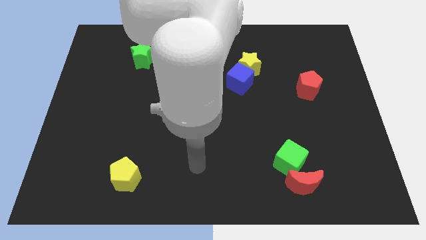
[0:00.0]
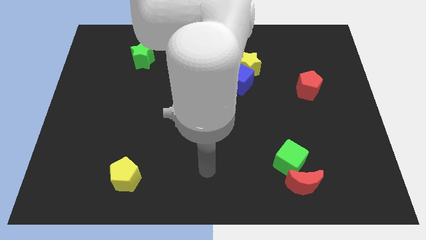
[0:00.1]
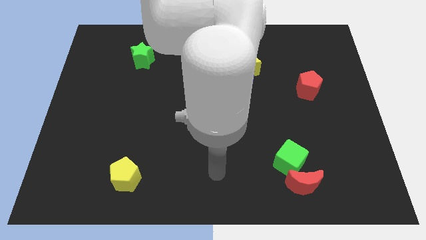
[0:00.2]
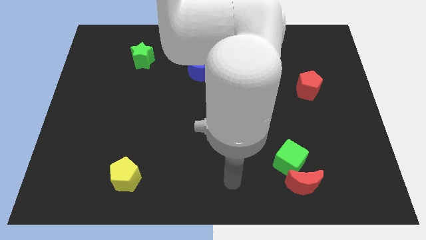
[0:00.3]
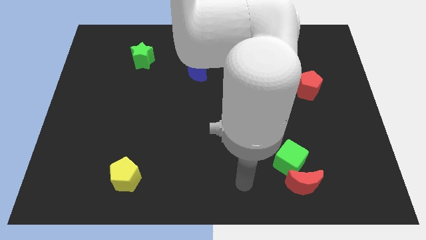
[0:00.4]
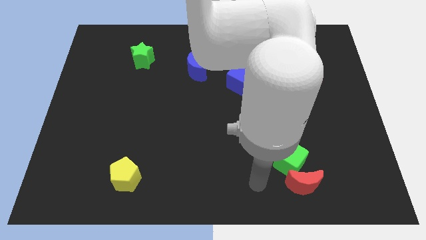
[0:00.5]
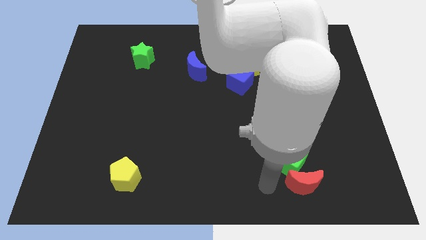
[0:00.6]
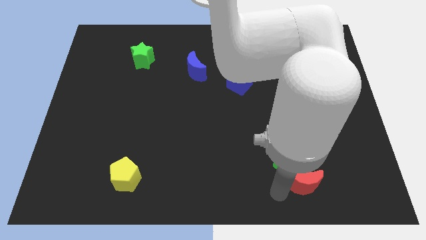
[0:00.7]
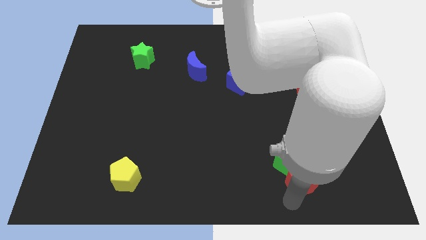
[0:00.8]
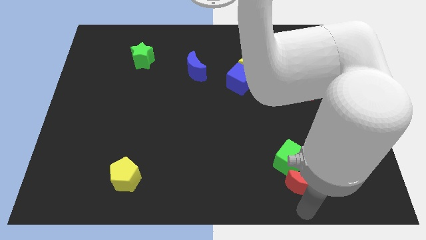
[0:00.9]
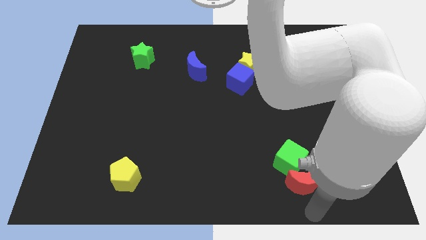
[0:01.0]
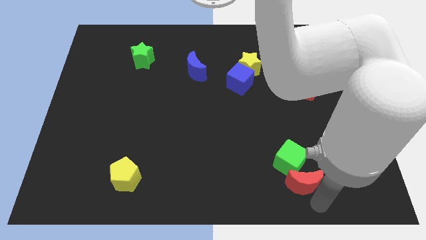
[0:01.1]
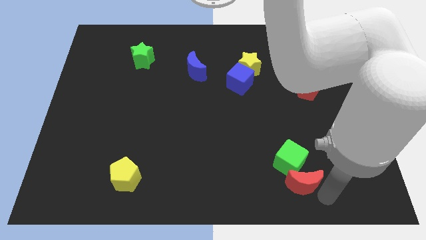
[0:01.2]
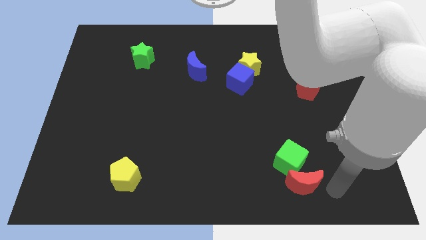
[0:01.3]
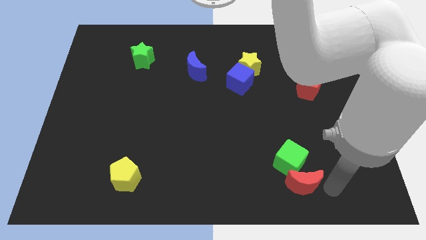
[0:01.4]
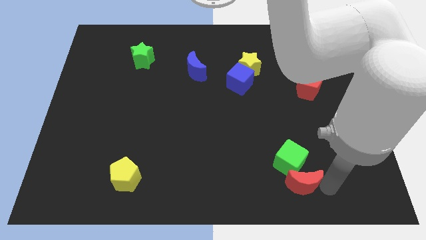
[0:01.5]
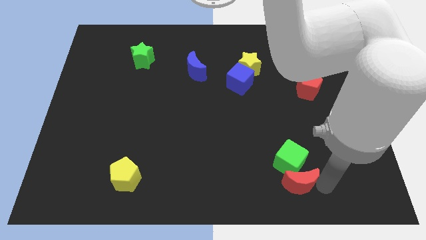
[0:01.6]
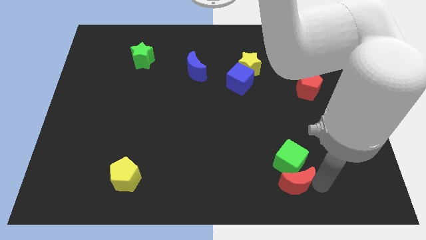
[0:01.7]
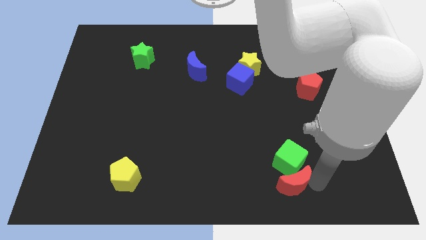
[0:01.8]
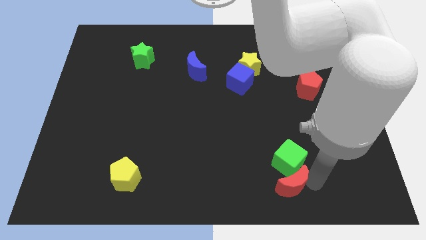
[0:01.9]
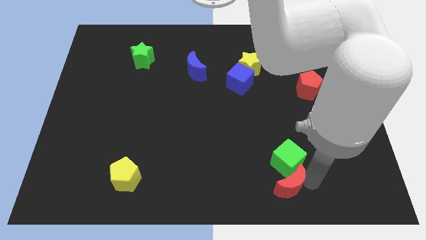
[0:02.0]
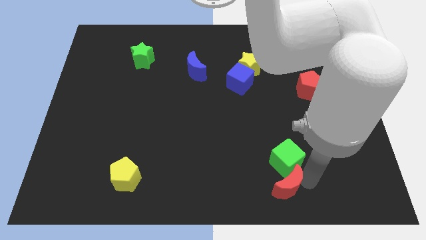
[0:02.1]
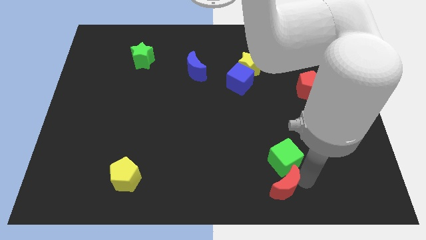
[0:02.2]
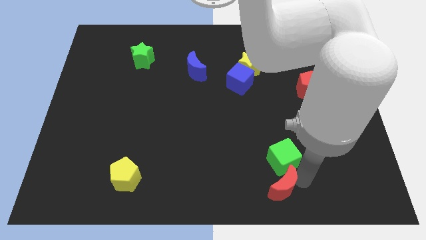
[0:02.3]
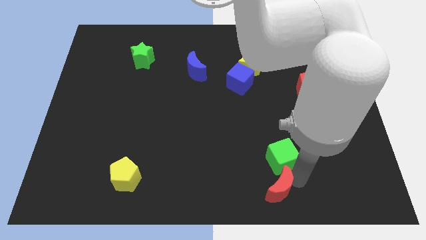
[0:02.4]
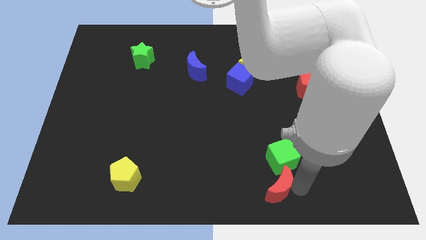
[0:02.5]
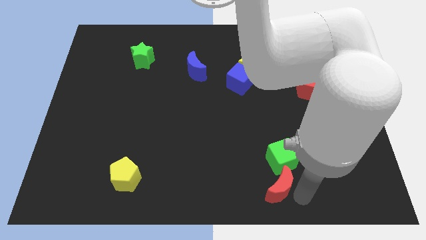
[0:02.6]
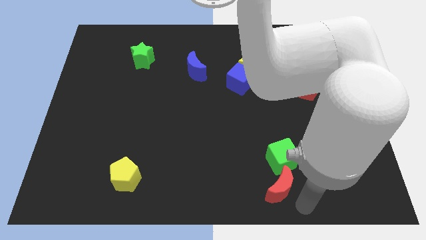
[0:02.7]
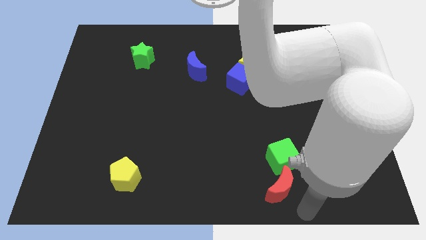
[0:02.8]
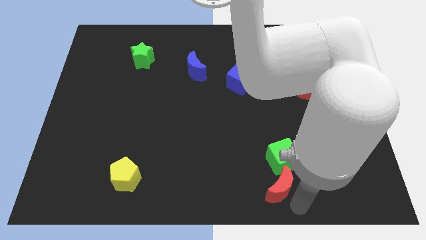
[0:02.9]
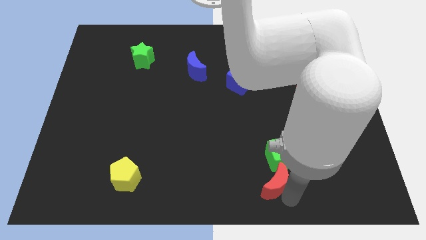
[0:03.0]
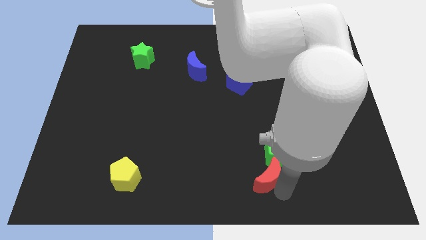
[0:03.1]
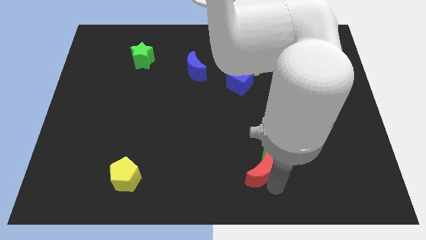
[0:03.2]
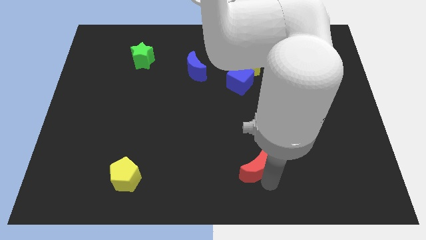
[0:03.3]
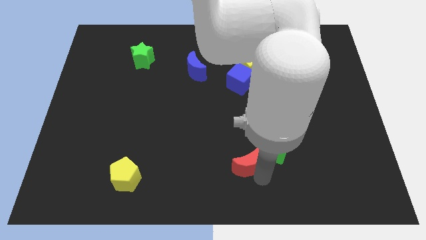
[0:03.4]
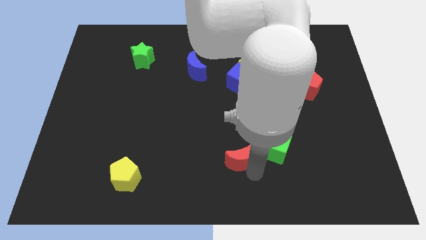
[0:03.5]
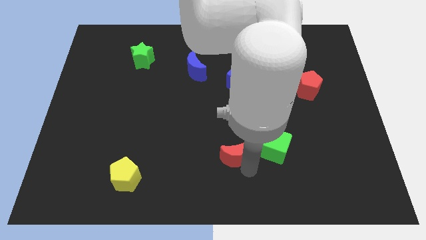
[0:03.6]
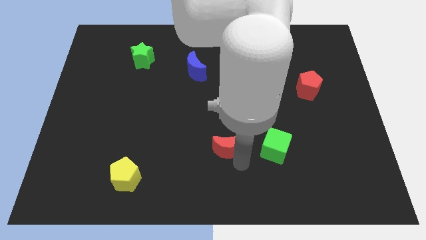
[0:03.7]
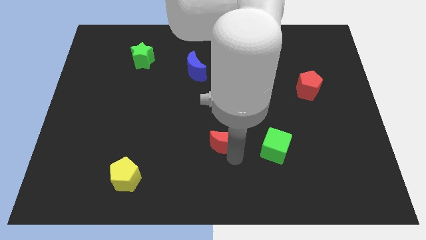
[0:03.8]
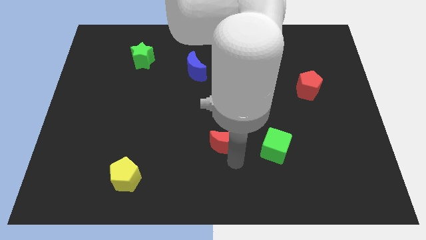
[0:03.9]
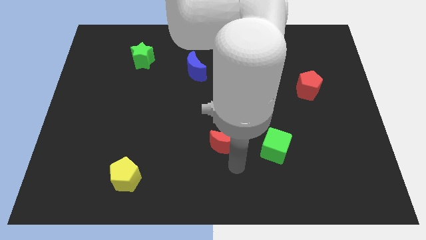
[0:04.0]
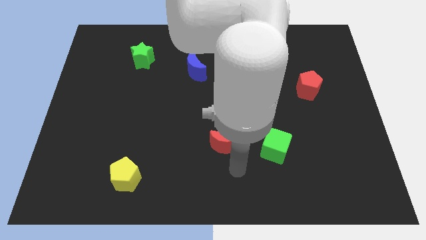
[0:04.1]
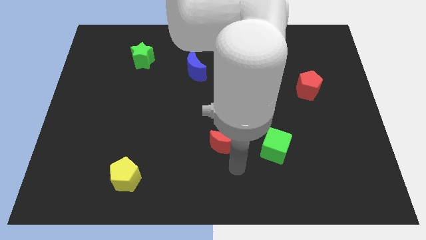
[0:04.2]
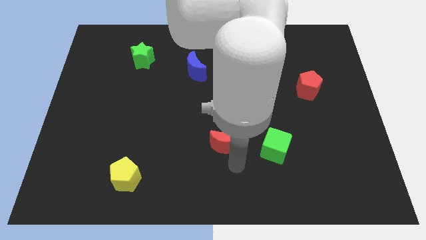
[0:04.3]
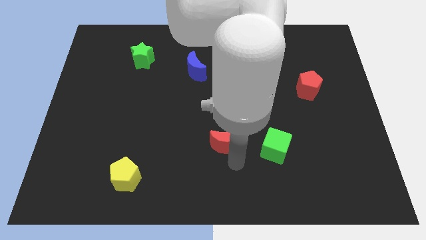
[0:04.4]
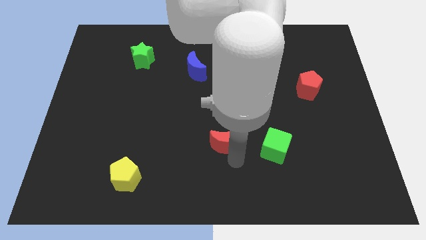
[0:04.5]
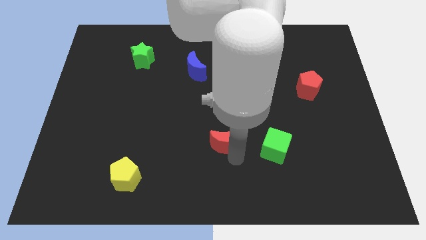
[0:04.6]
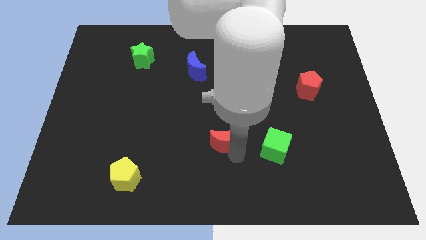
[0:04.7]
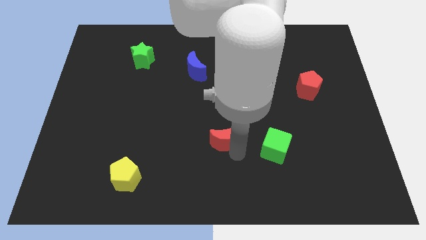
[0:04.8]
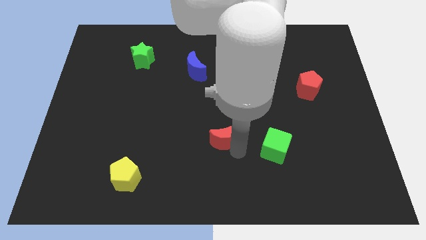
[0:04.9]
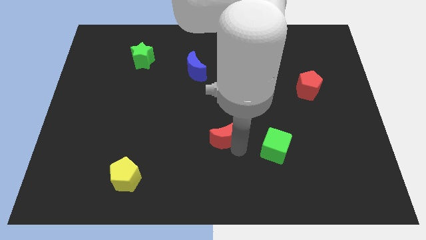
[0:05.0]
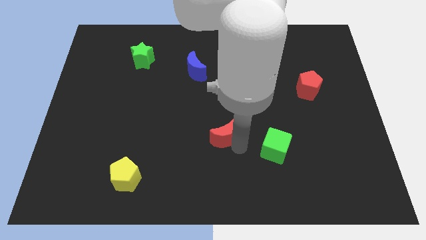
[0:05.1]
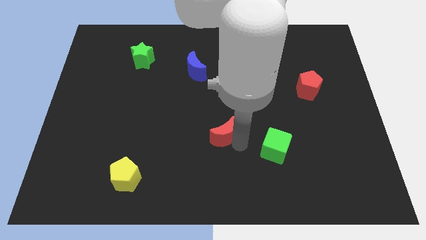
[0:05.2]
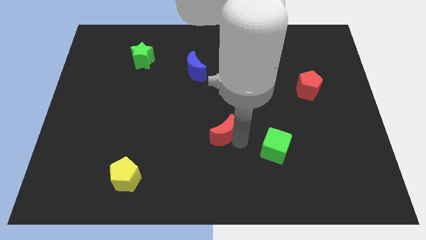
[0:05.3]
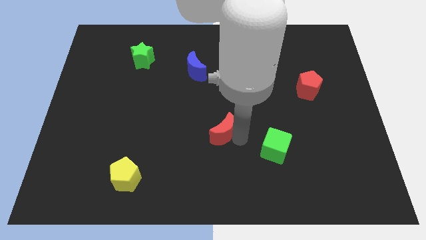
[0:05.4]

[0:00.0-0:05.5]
push the red moon upwards and left

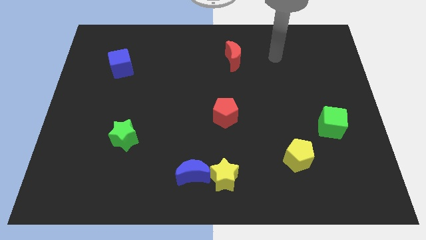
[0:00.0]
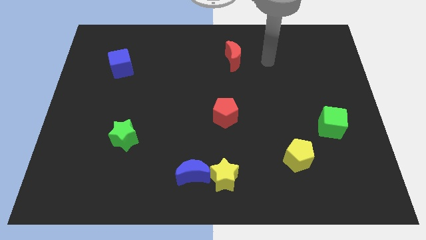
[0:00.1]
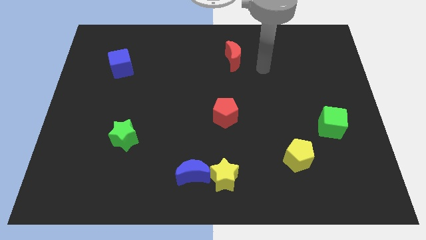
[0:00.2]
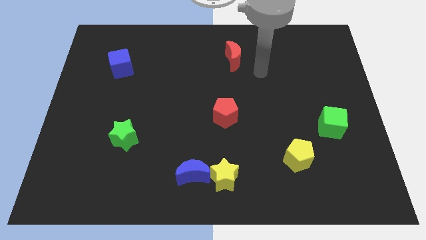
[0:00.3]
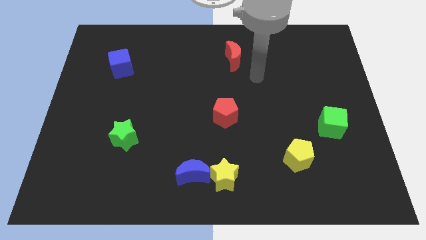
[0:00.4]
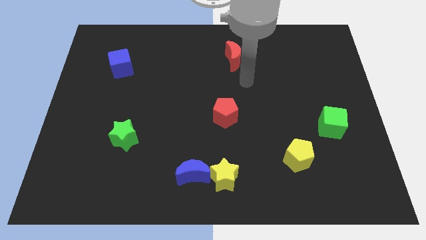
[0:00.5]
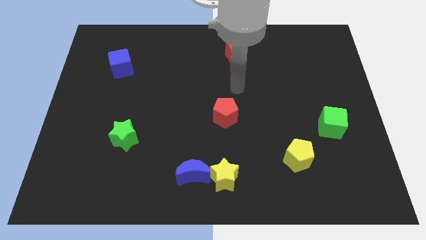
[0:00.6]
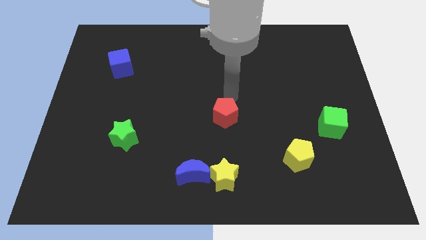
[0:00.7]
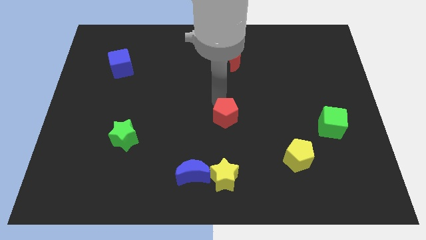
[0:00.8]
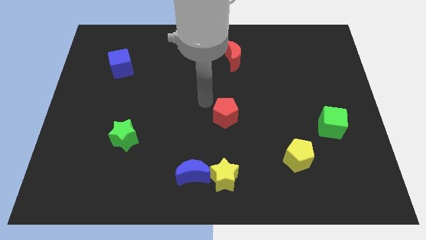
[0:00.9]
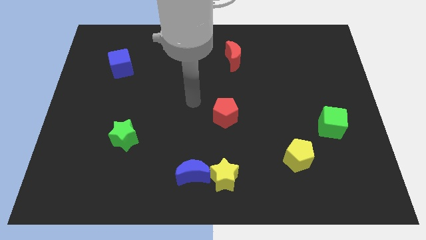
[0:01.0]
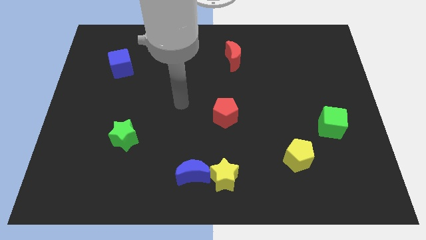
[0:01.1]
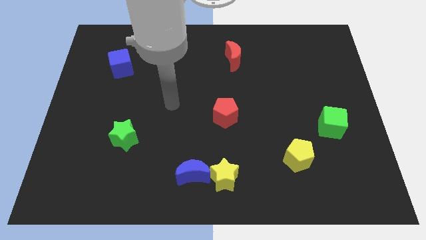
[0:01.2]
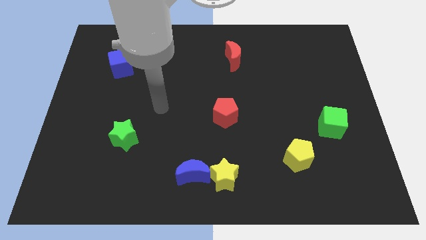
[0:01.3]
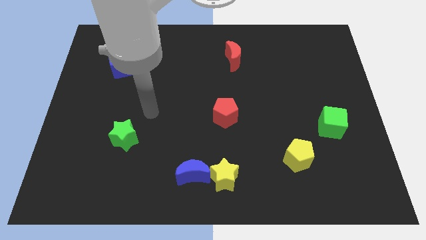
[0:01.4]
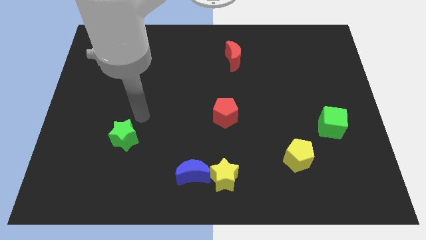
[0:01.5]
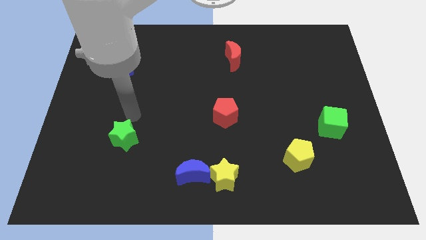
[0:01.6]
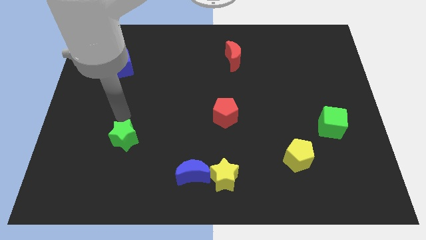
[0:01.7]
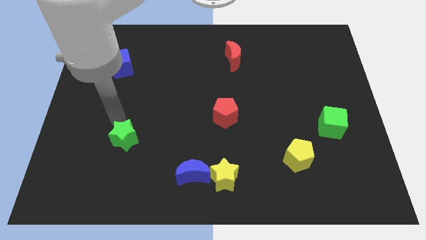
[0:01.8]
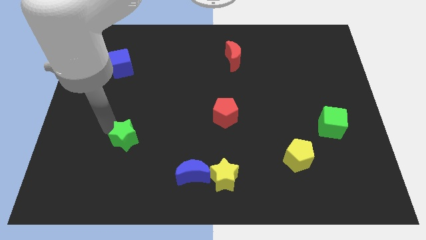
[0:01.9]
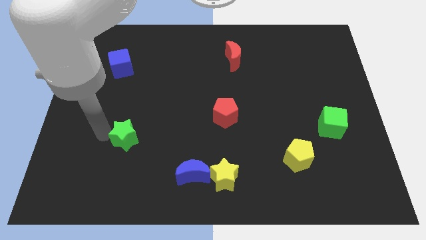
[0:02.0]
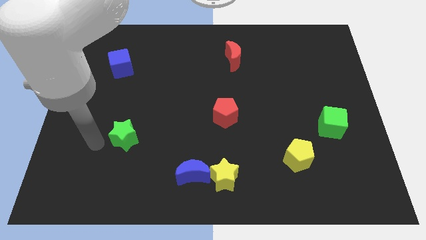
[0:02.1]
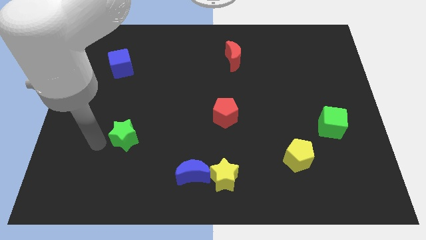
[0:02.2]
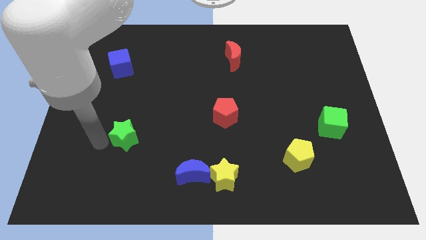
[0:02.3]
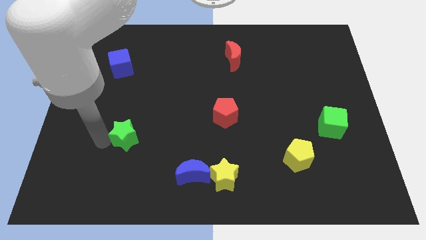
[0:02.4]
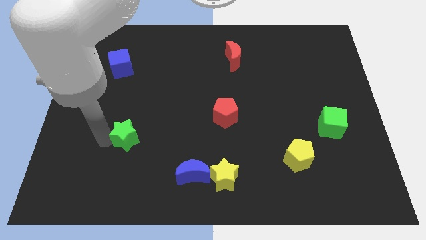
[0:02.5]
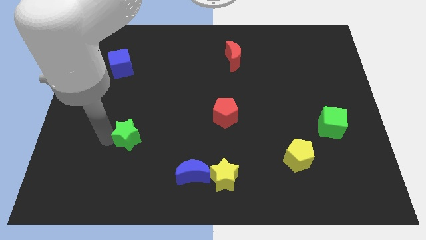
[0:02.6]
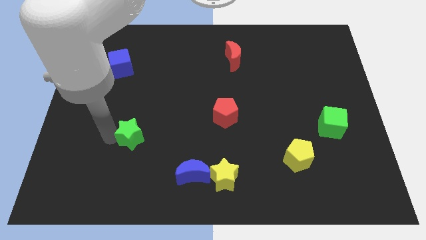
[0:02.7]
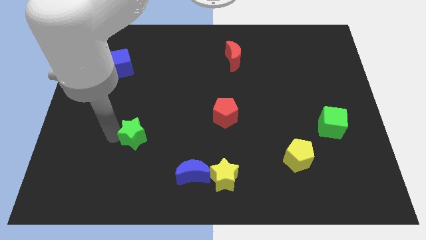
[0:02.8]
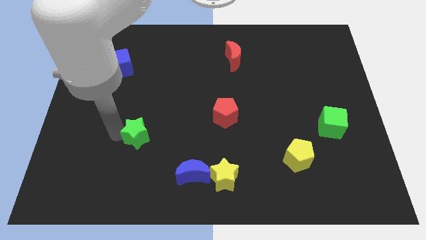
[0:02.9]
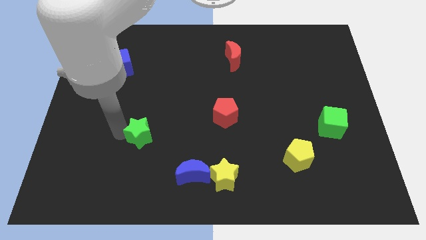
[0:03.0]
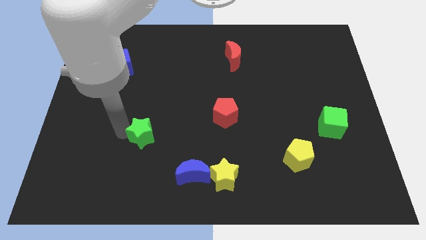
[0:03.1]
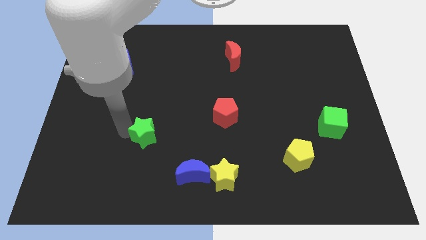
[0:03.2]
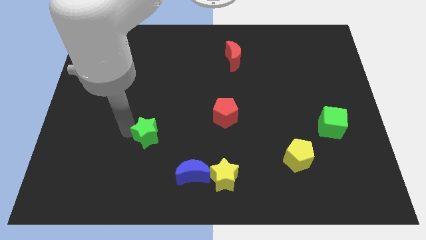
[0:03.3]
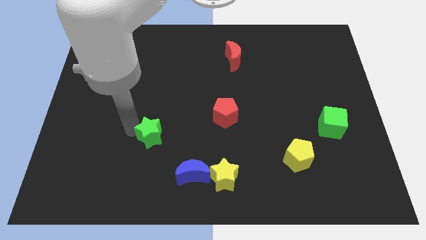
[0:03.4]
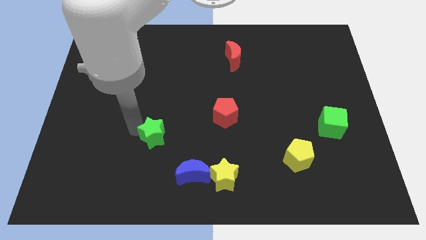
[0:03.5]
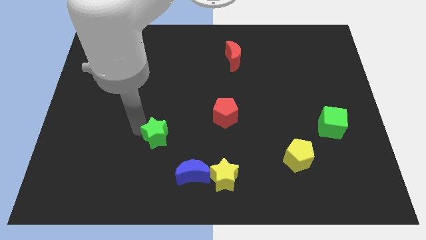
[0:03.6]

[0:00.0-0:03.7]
move the green star to the right somewhat
